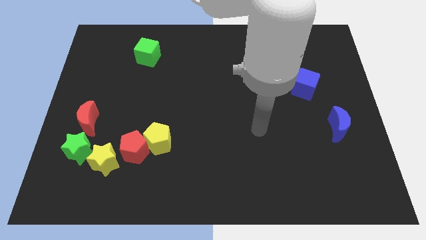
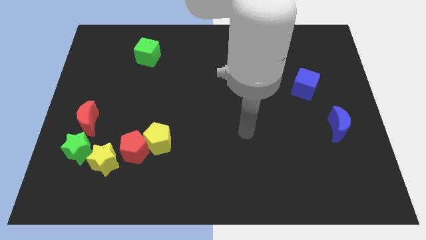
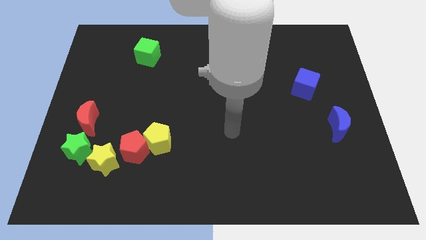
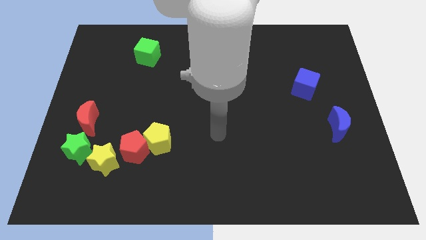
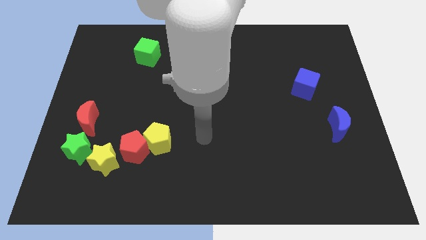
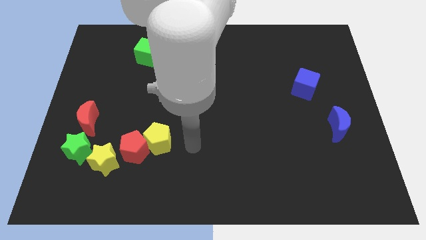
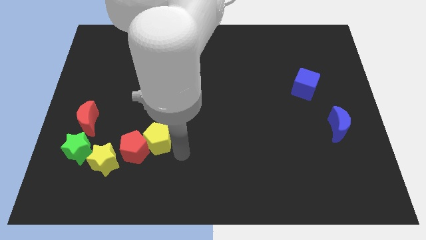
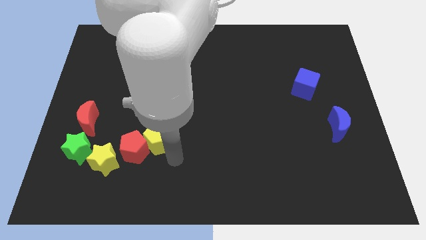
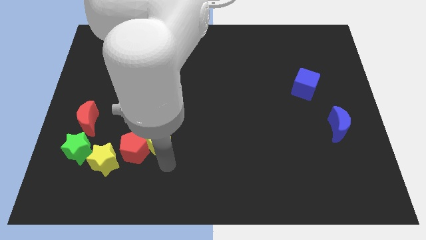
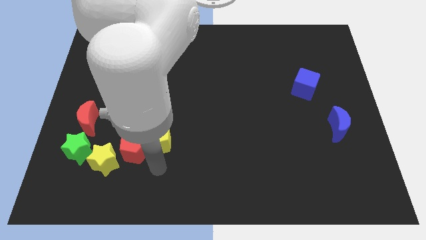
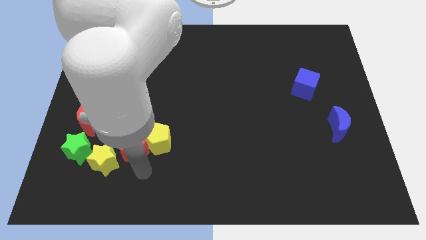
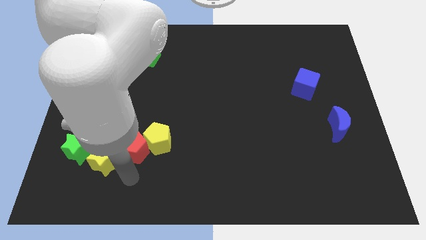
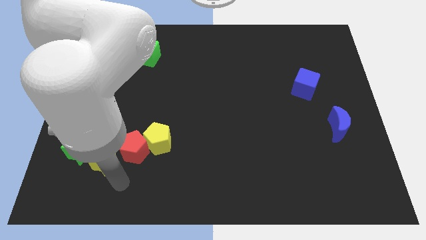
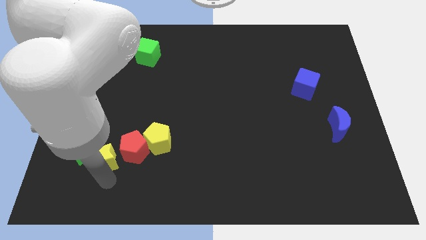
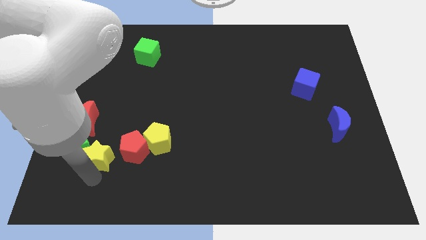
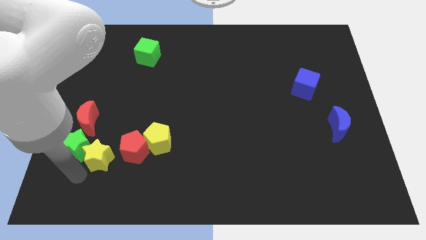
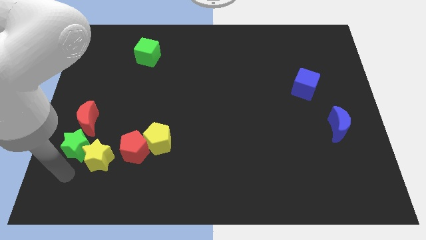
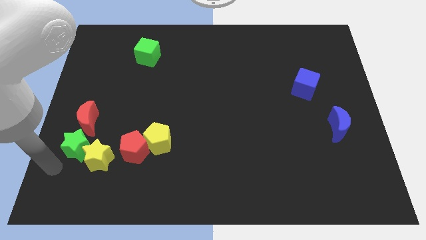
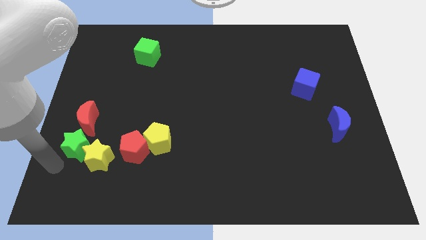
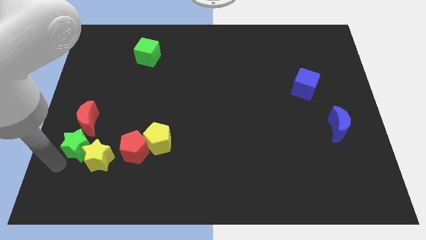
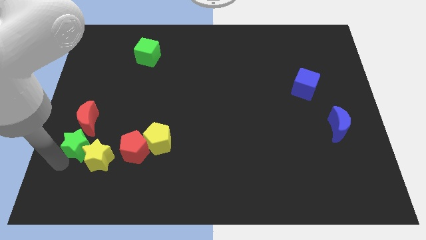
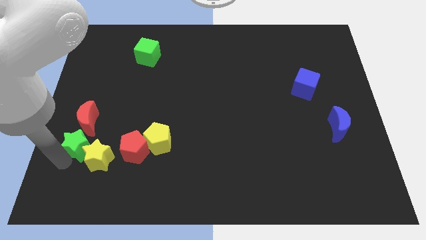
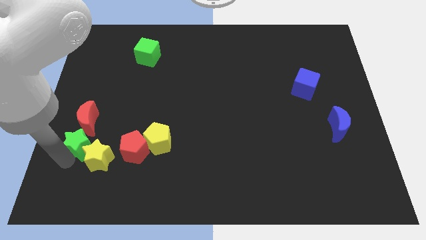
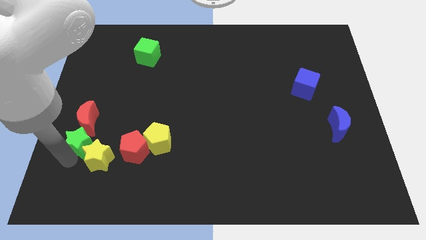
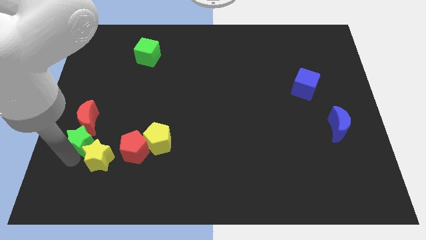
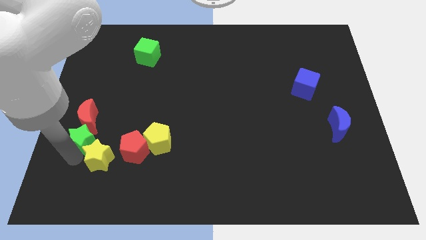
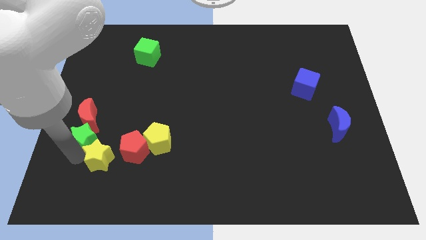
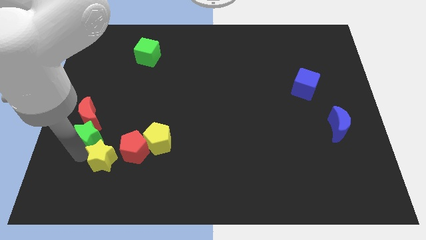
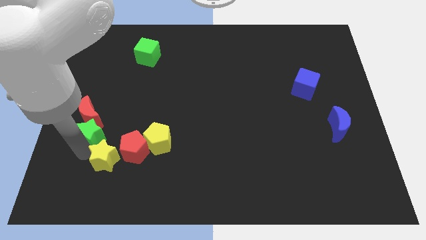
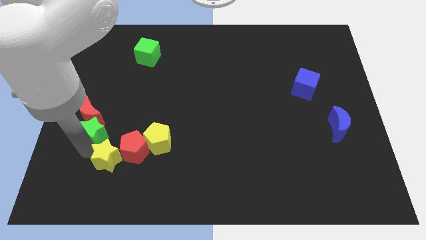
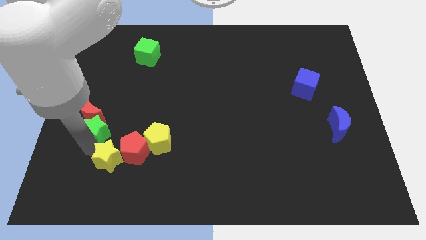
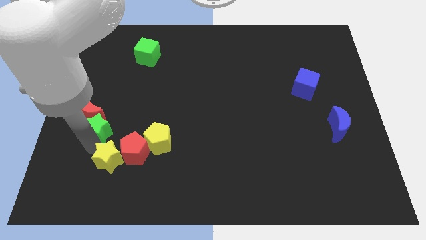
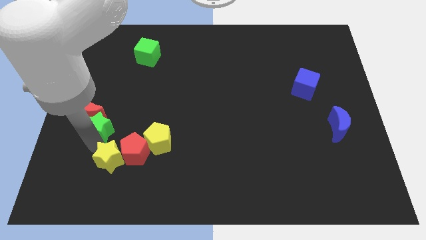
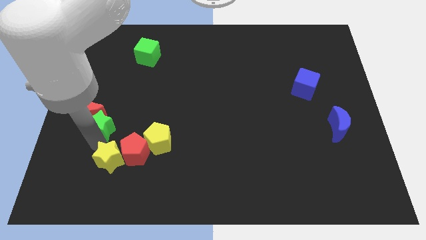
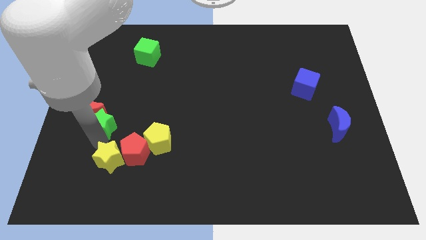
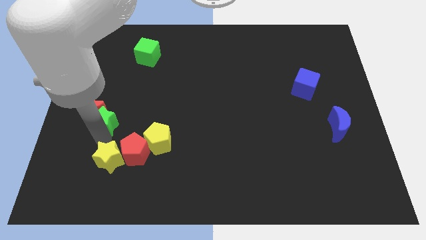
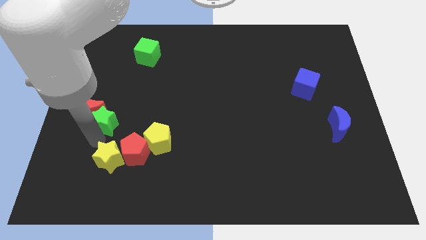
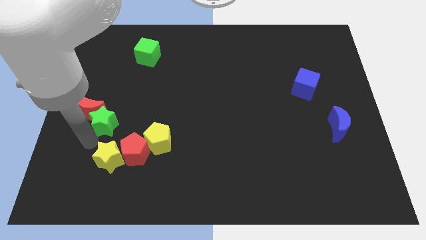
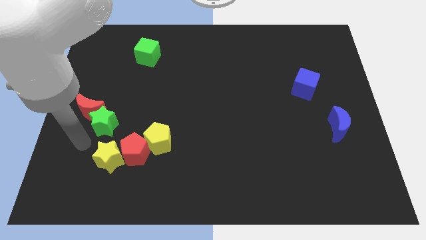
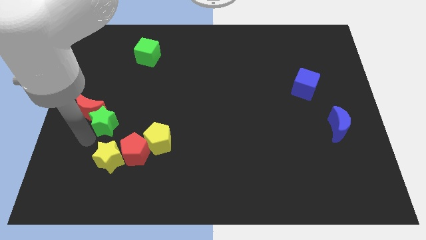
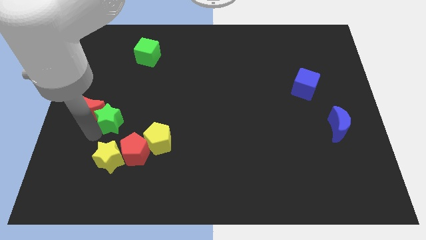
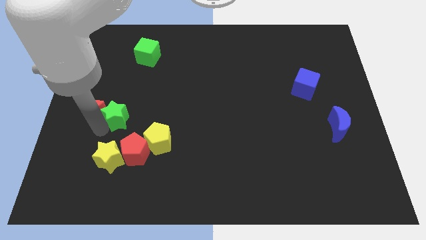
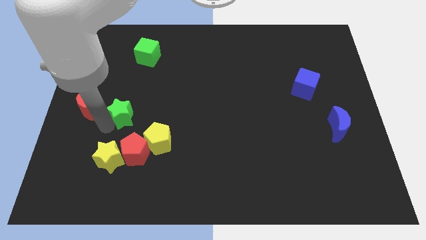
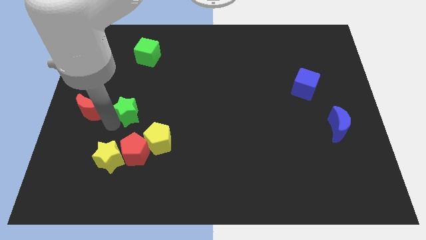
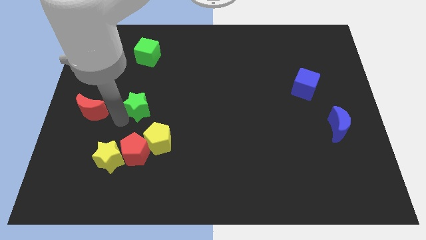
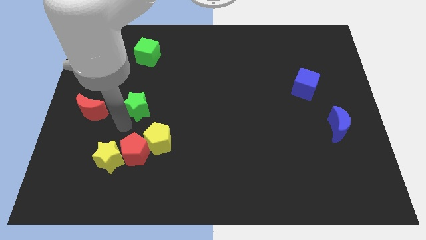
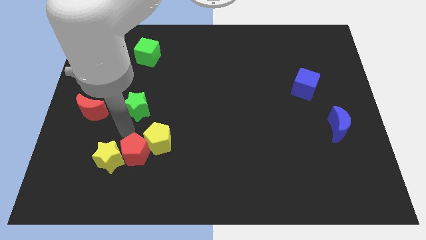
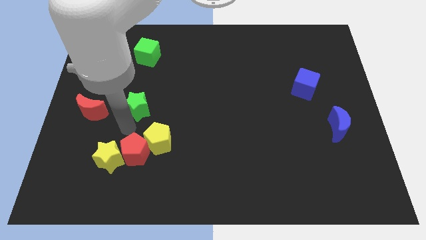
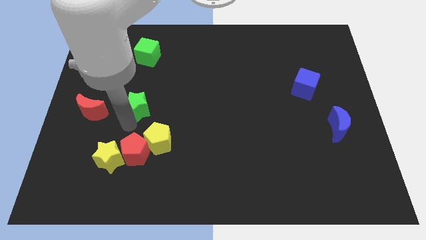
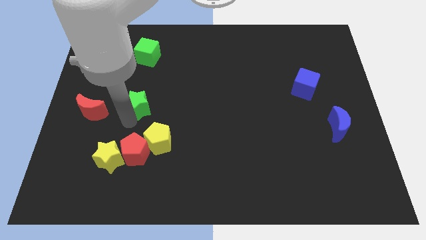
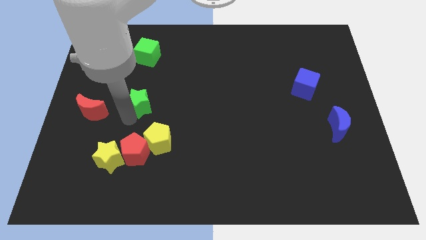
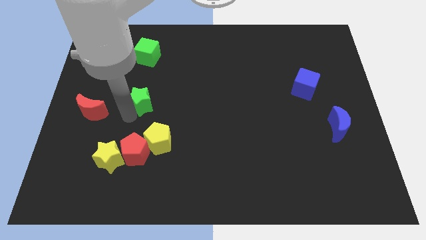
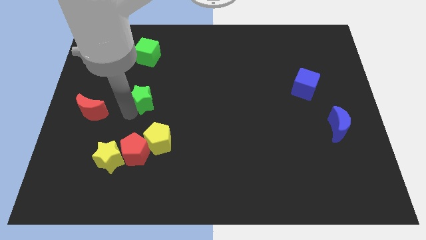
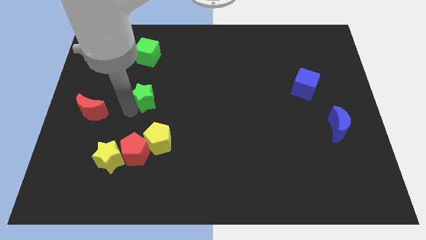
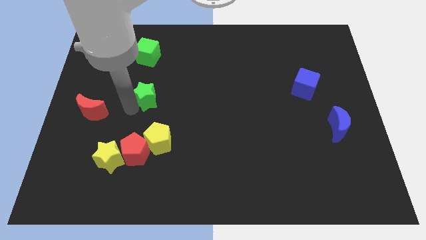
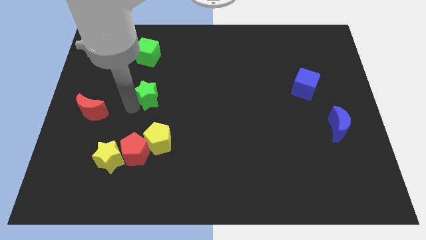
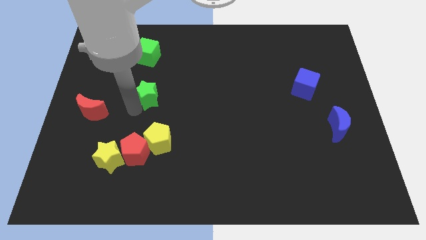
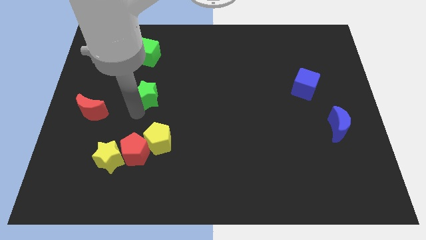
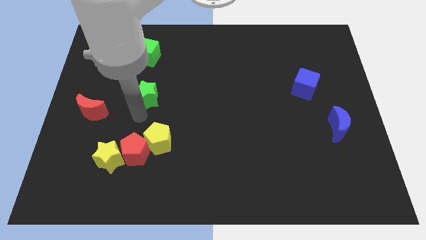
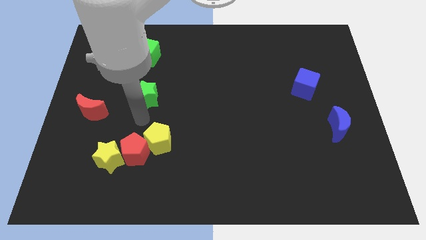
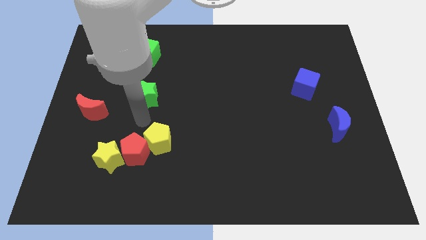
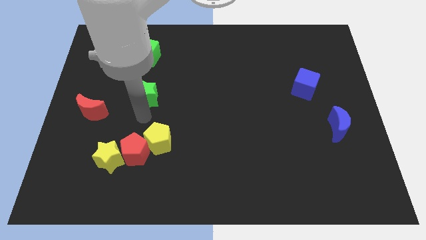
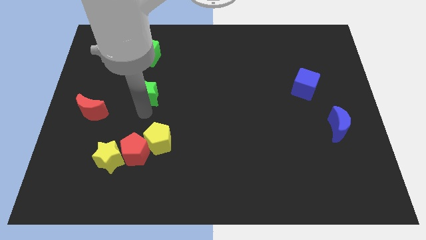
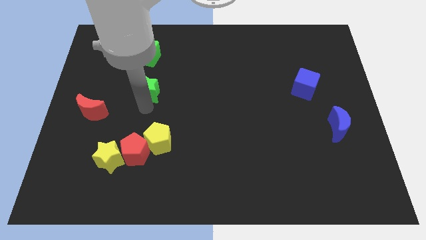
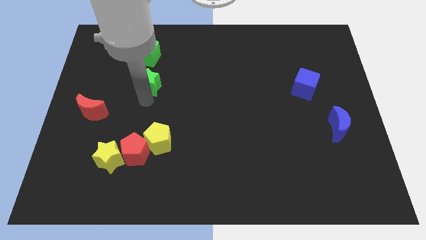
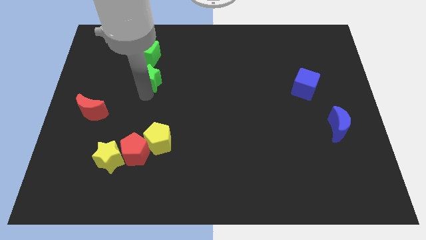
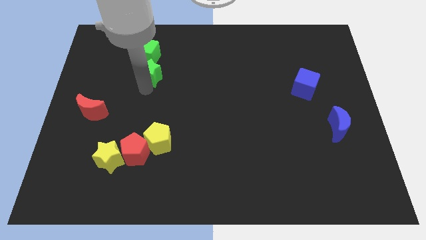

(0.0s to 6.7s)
move the green star to the bottom right side of the green cube
